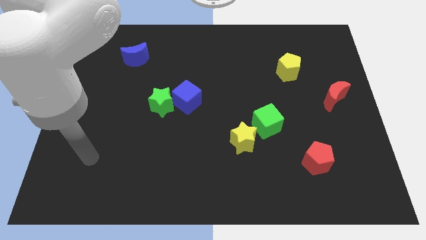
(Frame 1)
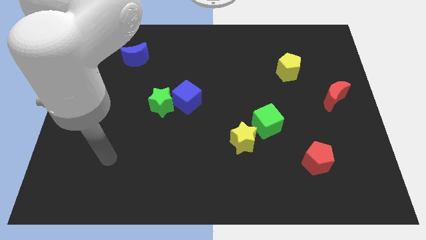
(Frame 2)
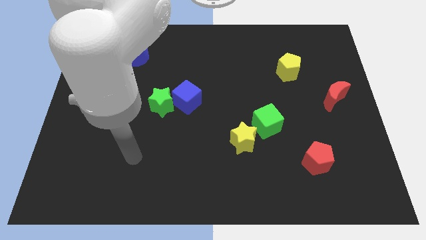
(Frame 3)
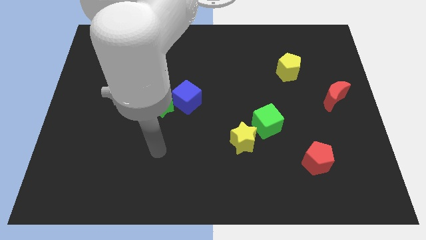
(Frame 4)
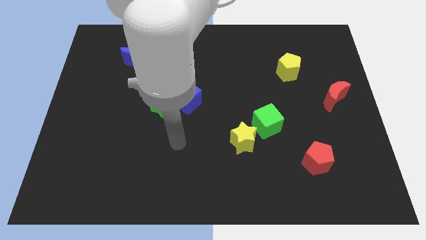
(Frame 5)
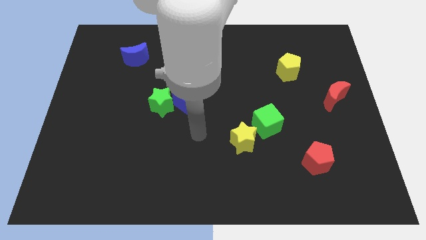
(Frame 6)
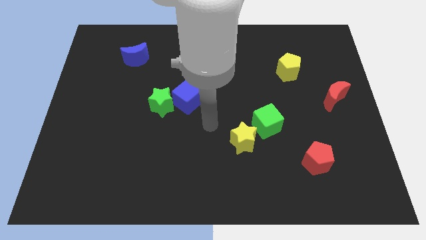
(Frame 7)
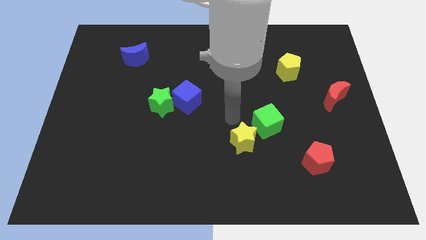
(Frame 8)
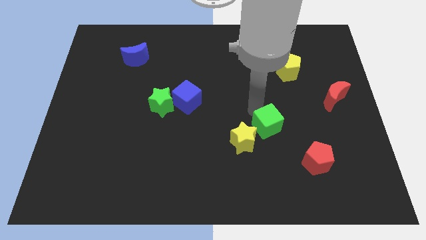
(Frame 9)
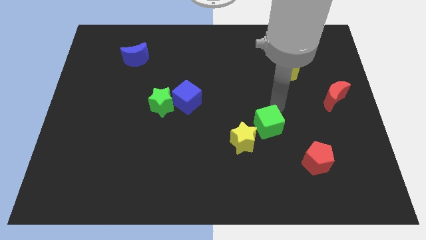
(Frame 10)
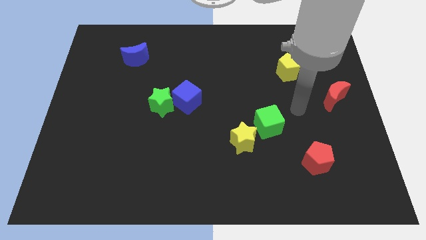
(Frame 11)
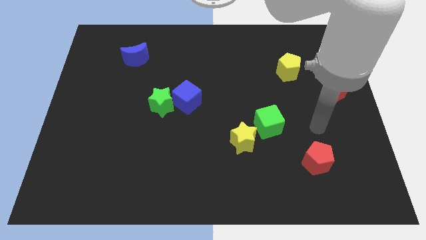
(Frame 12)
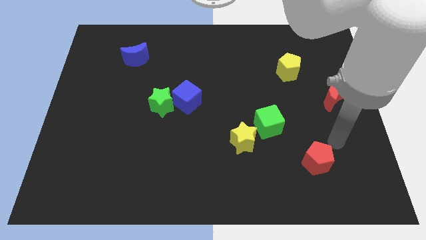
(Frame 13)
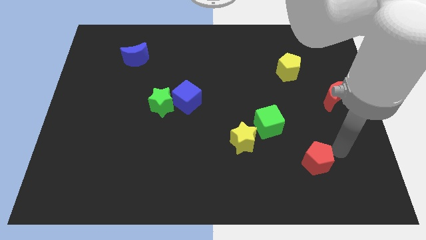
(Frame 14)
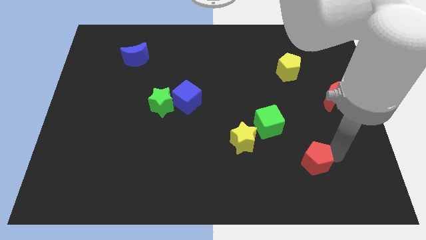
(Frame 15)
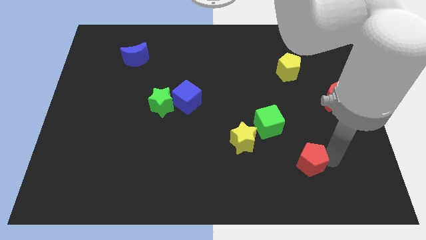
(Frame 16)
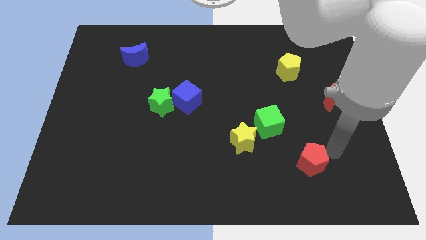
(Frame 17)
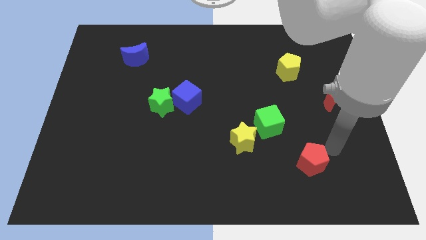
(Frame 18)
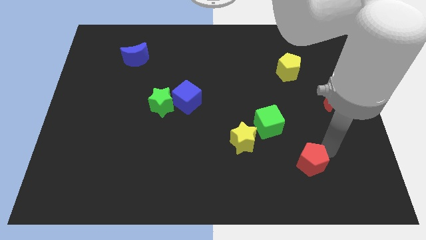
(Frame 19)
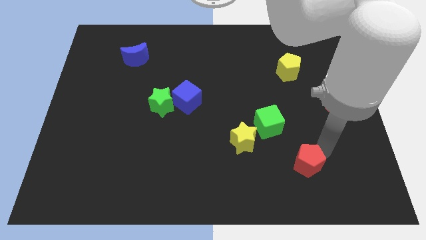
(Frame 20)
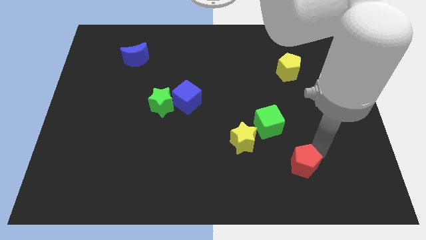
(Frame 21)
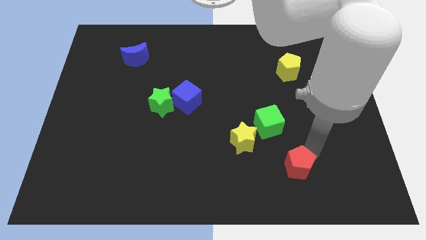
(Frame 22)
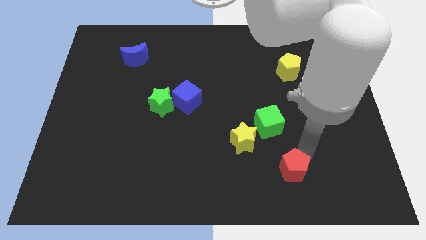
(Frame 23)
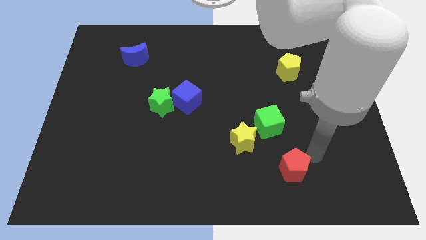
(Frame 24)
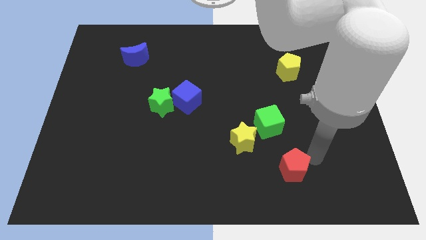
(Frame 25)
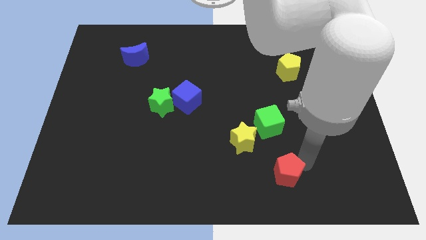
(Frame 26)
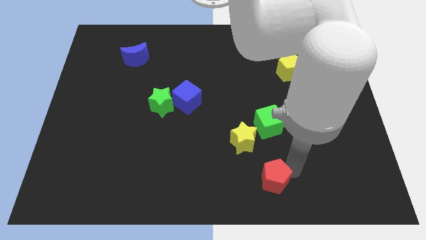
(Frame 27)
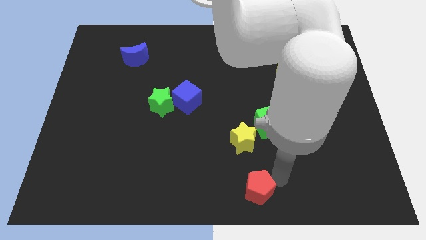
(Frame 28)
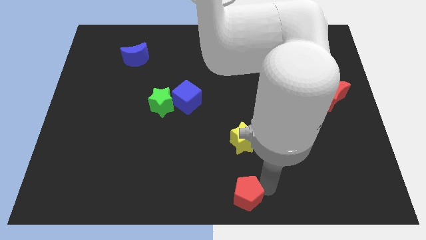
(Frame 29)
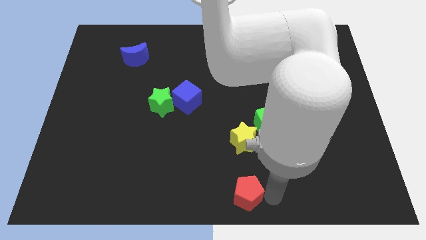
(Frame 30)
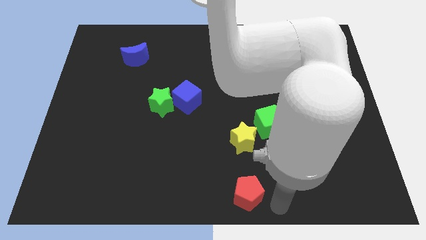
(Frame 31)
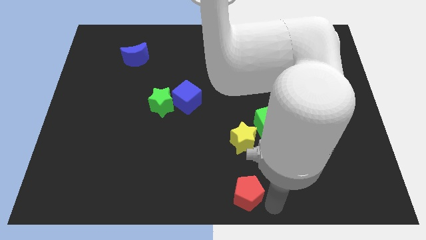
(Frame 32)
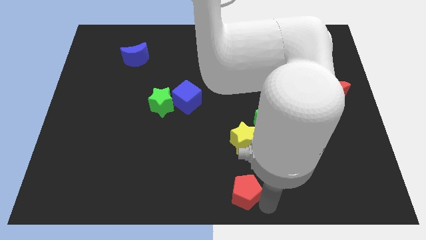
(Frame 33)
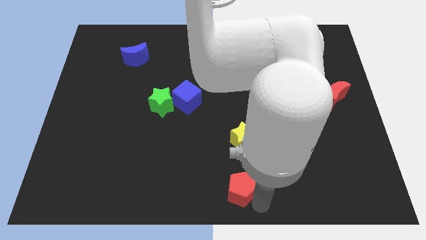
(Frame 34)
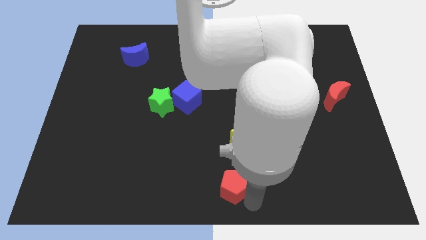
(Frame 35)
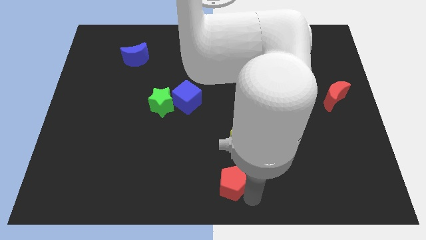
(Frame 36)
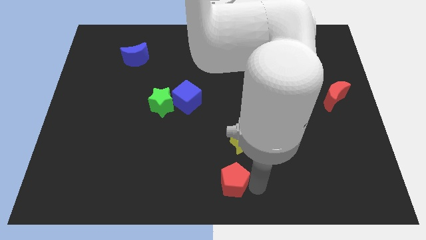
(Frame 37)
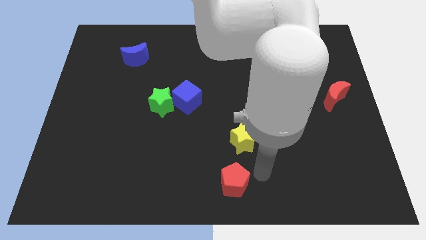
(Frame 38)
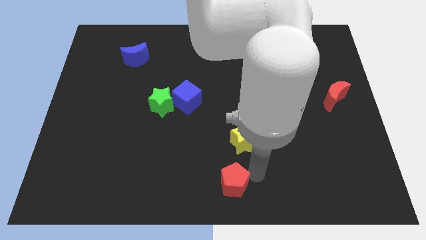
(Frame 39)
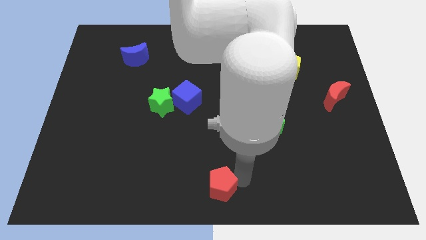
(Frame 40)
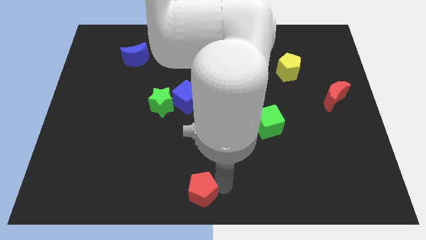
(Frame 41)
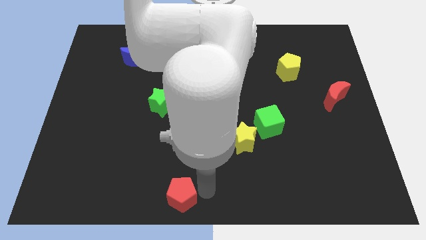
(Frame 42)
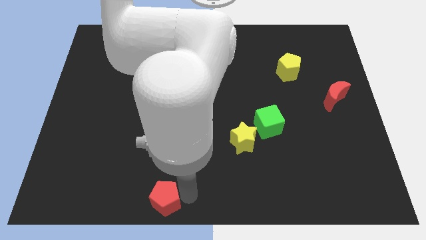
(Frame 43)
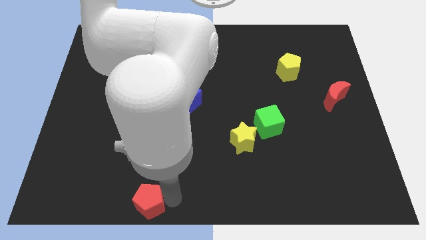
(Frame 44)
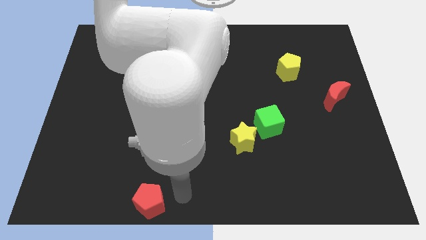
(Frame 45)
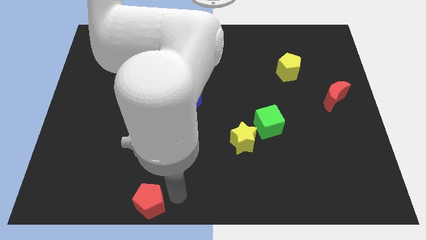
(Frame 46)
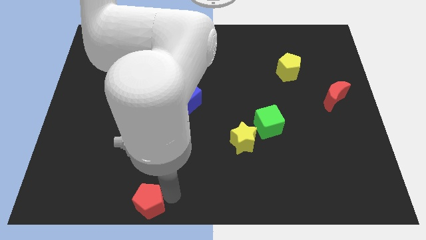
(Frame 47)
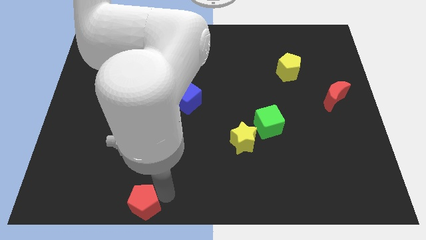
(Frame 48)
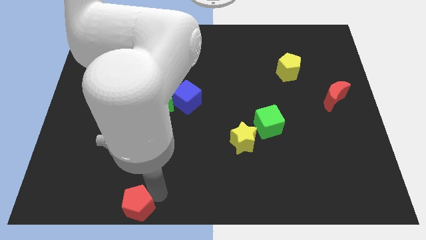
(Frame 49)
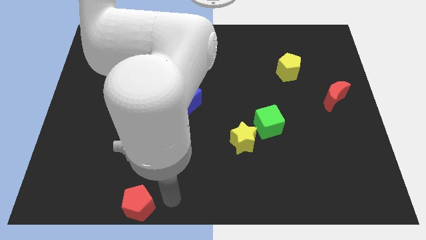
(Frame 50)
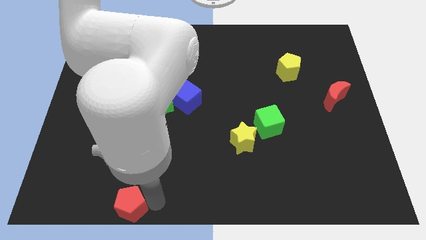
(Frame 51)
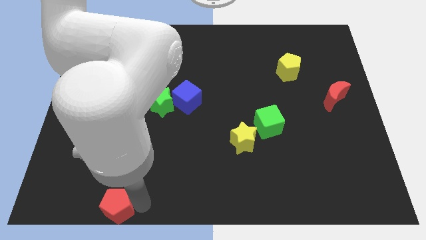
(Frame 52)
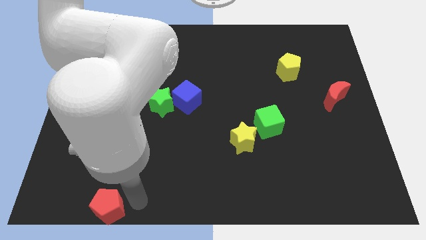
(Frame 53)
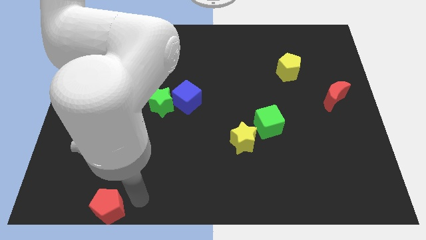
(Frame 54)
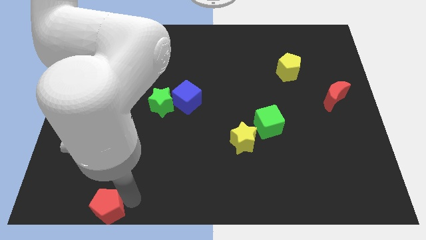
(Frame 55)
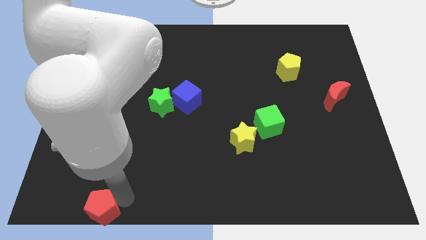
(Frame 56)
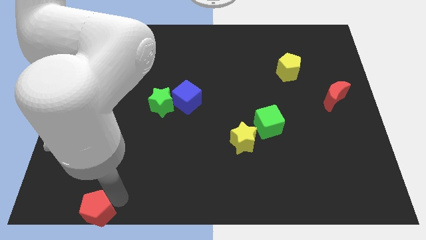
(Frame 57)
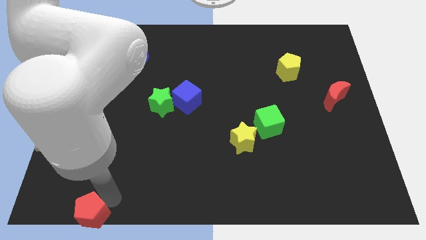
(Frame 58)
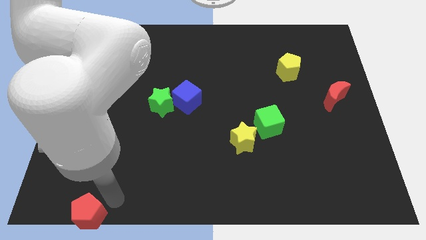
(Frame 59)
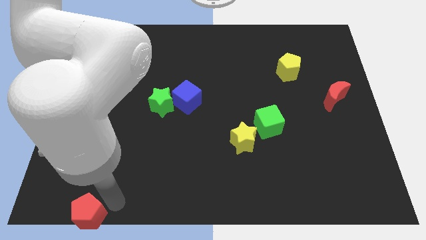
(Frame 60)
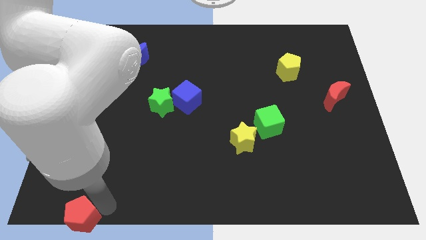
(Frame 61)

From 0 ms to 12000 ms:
put the red pentagon to the lower left corner
